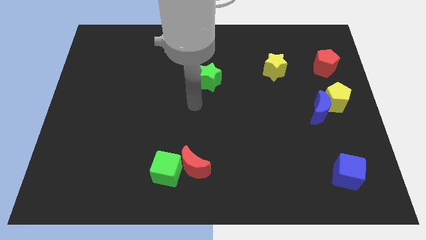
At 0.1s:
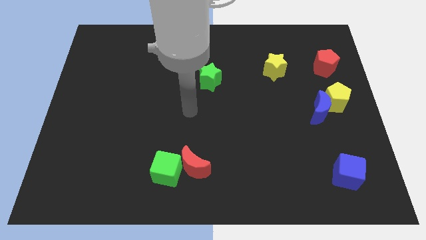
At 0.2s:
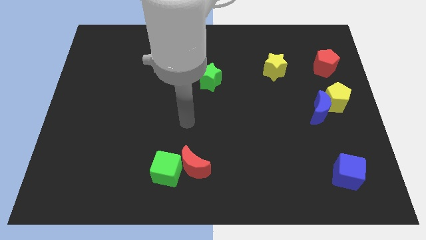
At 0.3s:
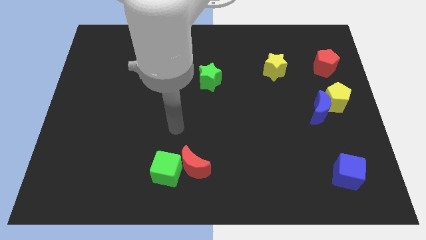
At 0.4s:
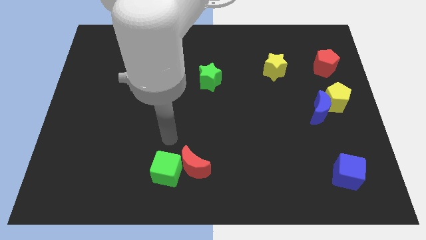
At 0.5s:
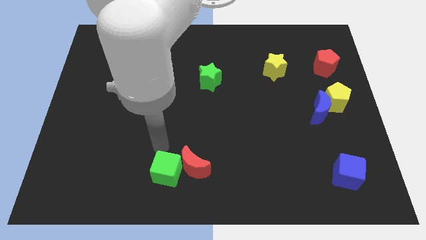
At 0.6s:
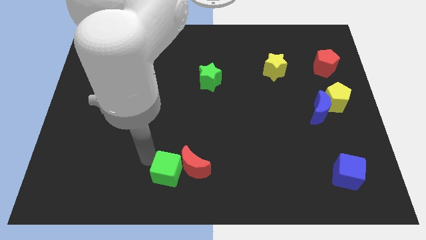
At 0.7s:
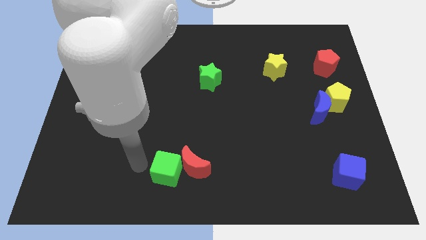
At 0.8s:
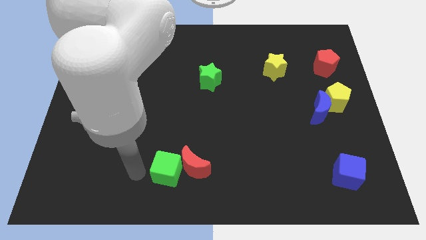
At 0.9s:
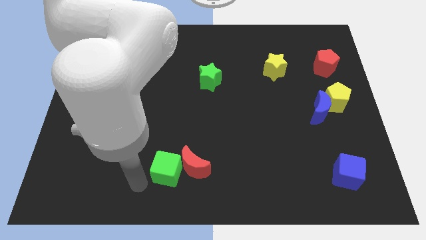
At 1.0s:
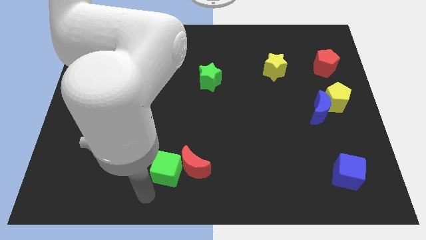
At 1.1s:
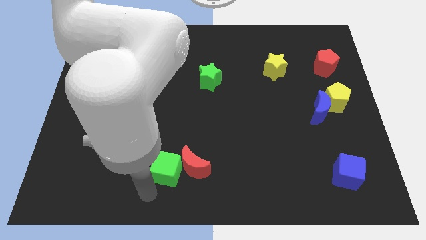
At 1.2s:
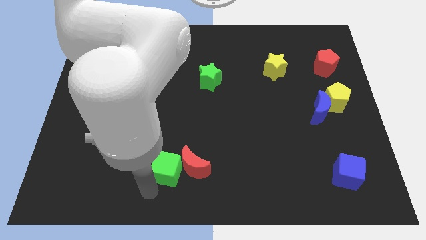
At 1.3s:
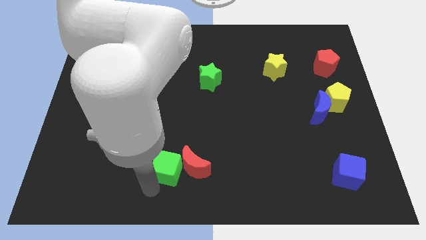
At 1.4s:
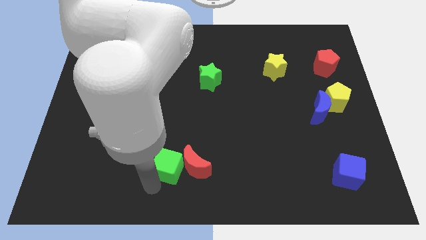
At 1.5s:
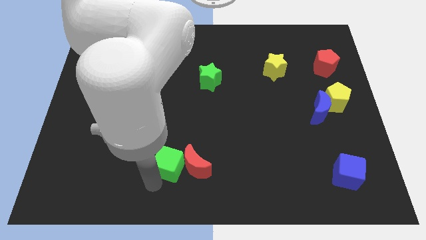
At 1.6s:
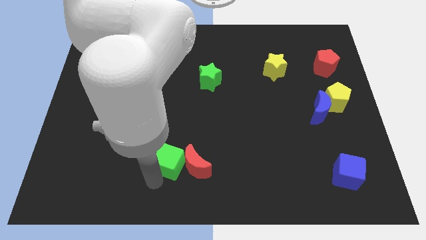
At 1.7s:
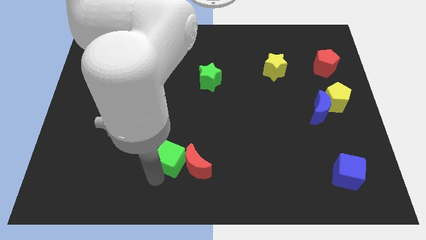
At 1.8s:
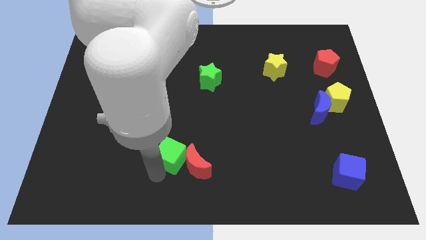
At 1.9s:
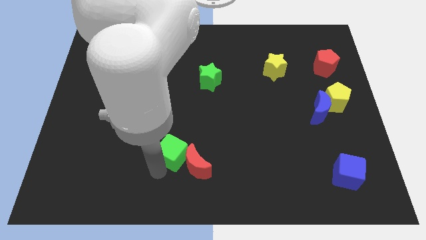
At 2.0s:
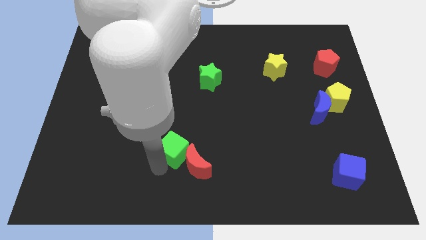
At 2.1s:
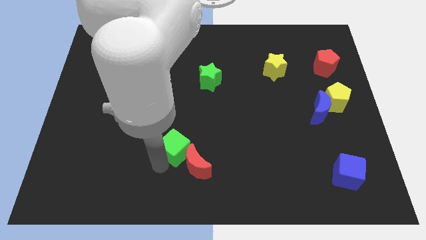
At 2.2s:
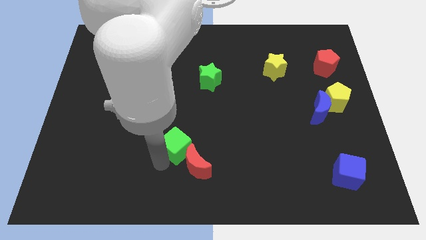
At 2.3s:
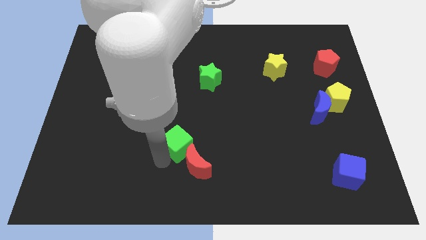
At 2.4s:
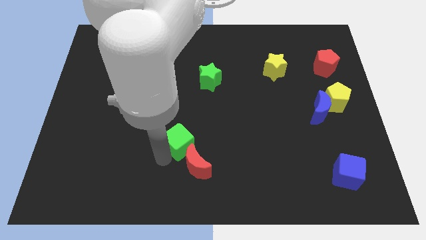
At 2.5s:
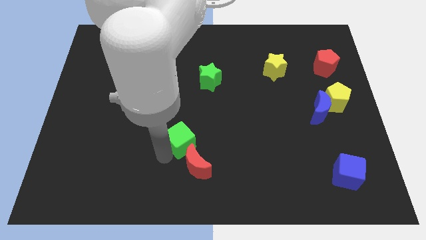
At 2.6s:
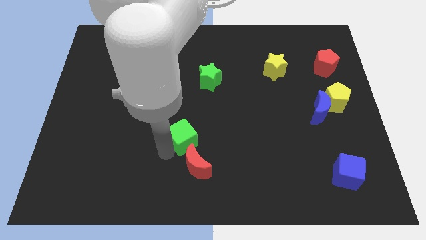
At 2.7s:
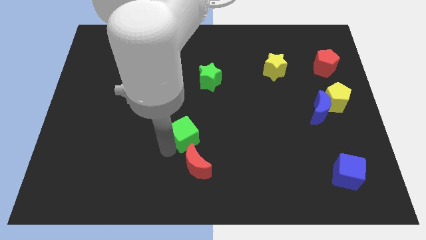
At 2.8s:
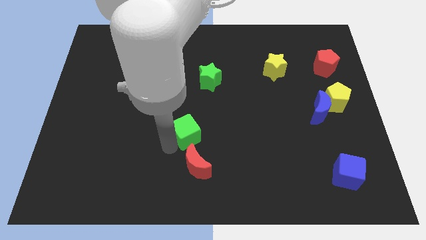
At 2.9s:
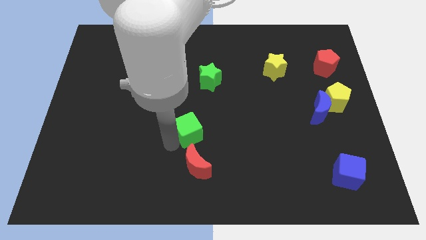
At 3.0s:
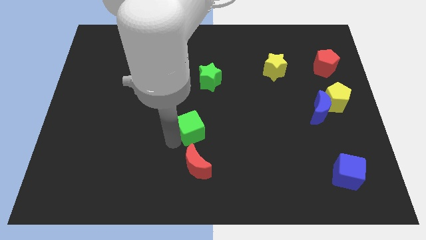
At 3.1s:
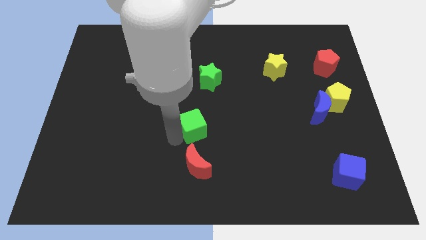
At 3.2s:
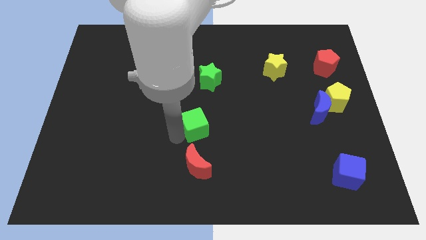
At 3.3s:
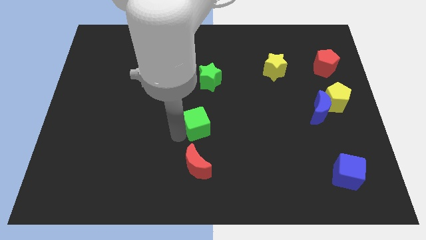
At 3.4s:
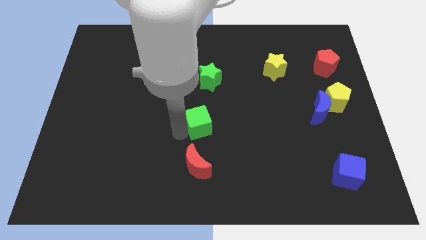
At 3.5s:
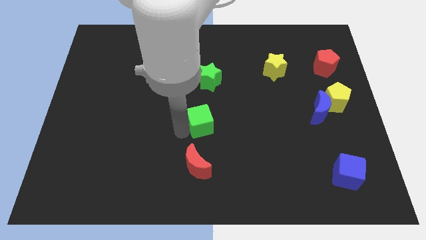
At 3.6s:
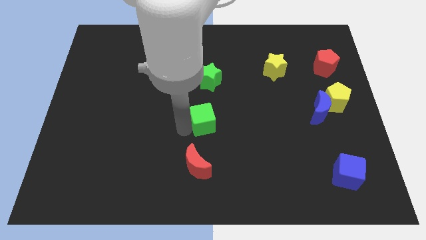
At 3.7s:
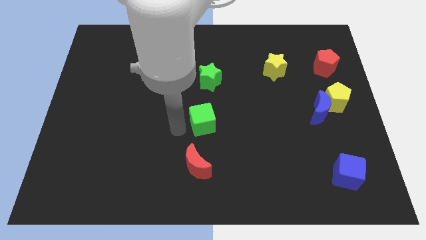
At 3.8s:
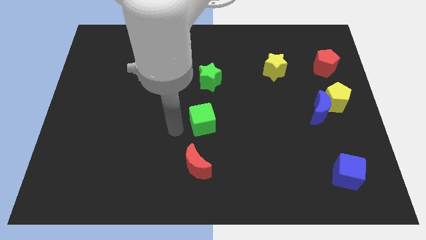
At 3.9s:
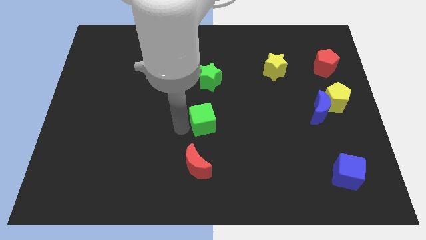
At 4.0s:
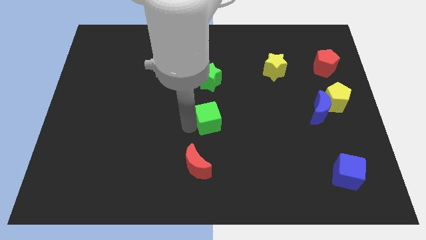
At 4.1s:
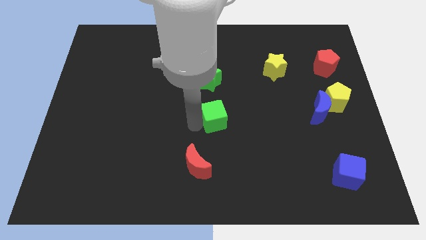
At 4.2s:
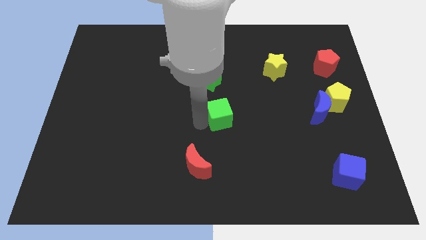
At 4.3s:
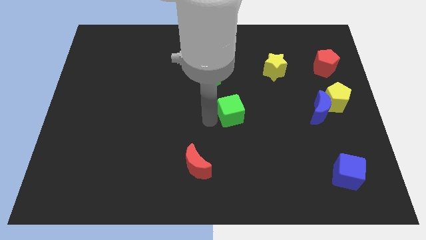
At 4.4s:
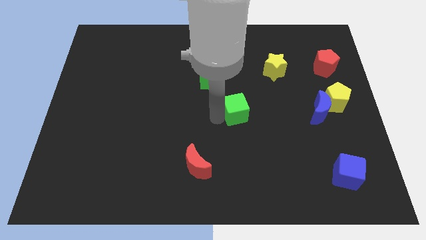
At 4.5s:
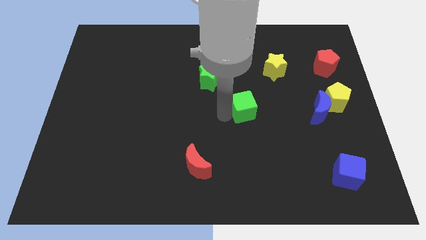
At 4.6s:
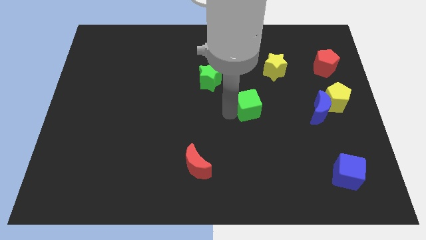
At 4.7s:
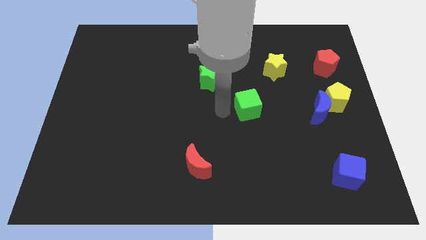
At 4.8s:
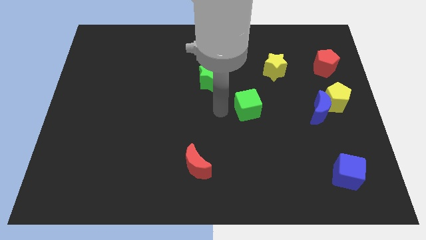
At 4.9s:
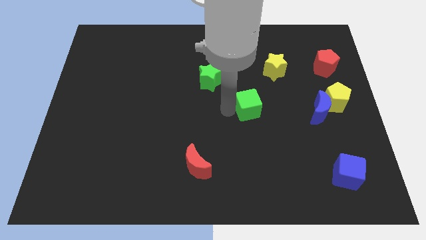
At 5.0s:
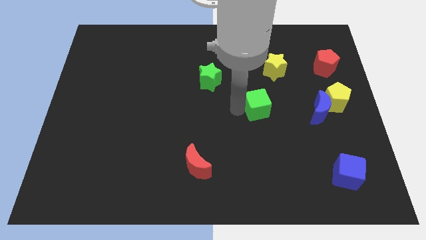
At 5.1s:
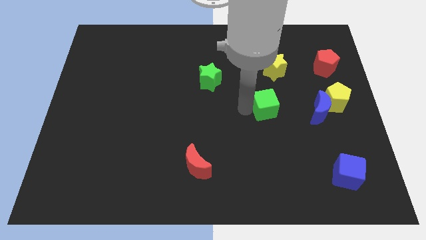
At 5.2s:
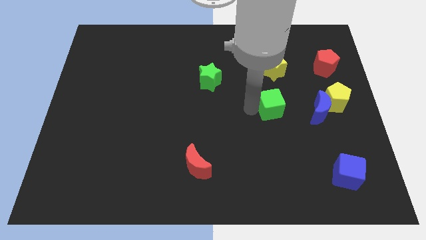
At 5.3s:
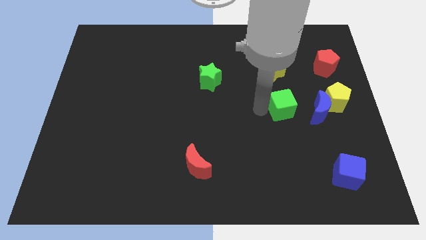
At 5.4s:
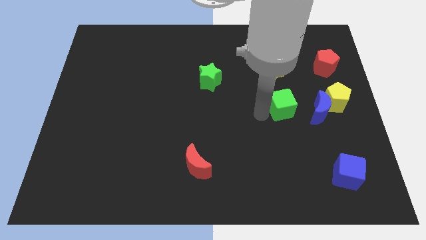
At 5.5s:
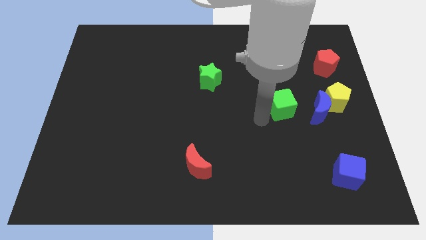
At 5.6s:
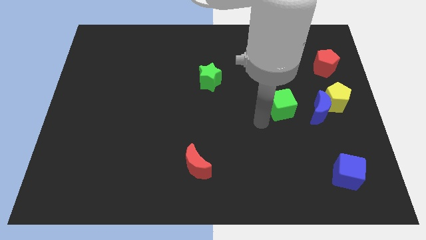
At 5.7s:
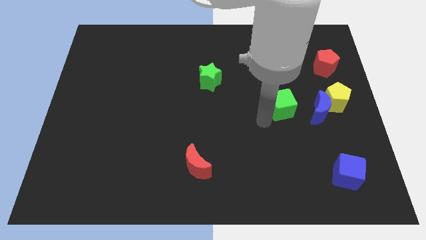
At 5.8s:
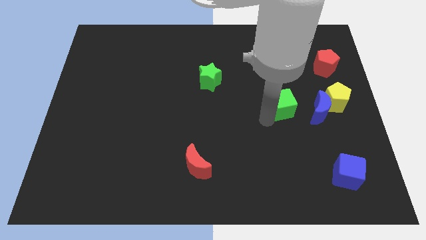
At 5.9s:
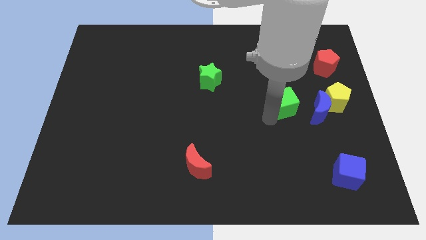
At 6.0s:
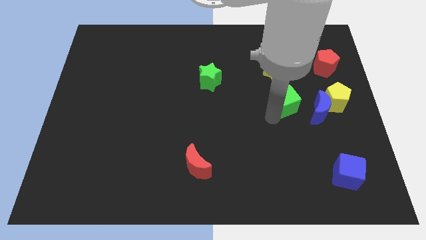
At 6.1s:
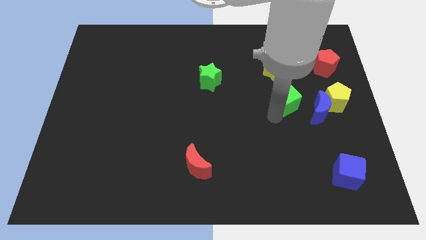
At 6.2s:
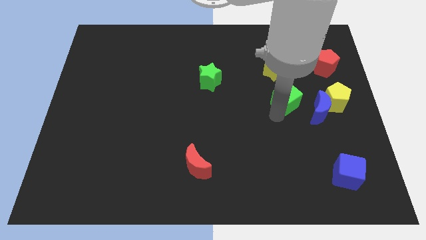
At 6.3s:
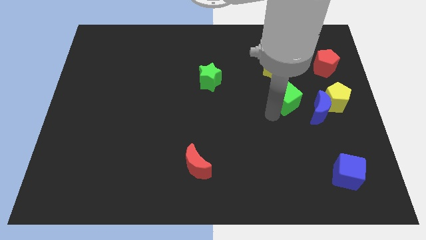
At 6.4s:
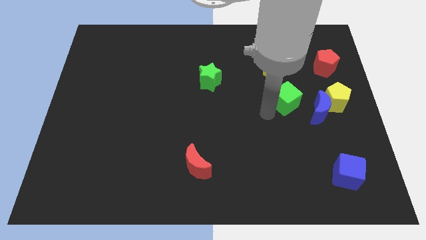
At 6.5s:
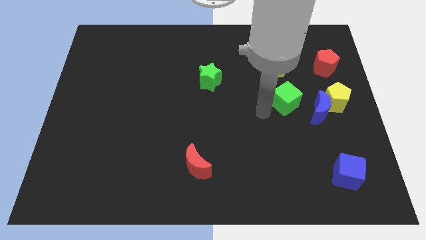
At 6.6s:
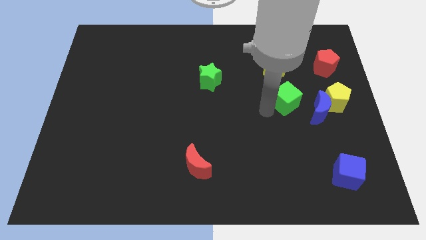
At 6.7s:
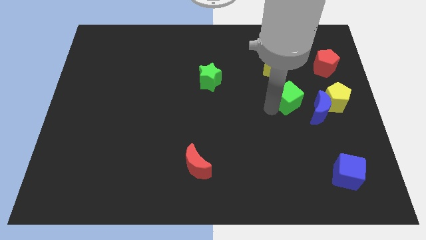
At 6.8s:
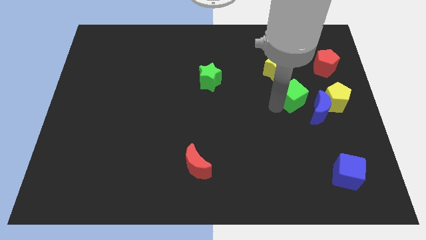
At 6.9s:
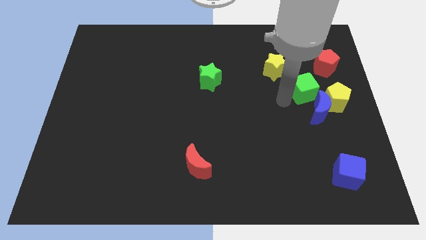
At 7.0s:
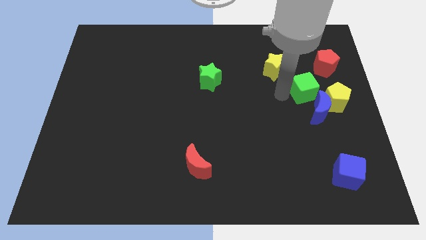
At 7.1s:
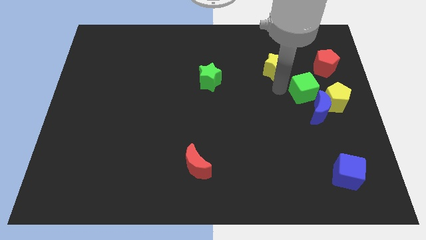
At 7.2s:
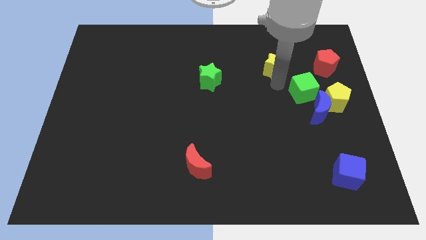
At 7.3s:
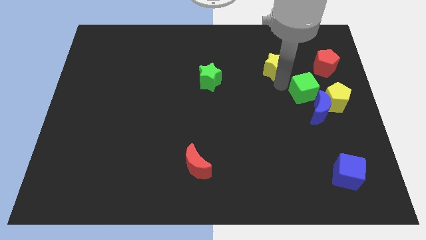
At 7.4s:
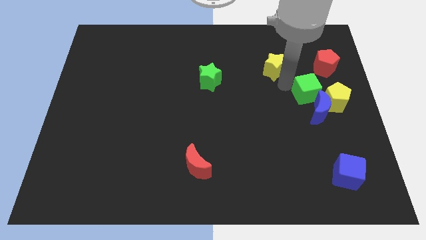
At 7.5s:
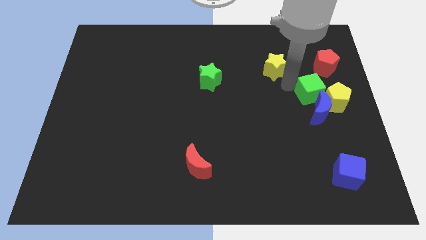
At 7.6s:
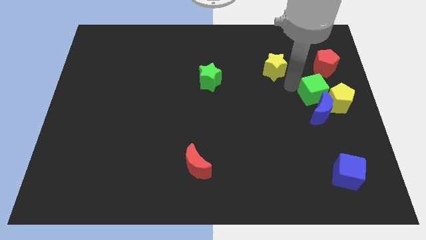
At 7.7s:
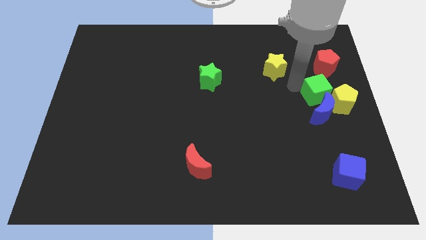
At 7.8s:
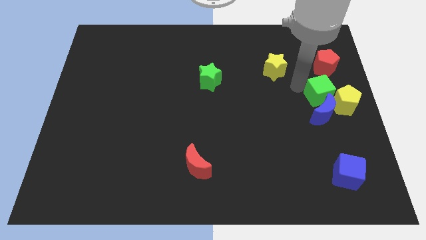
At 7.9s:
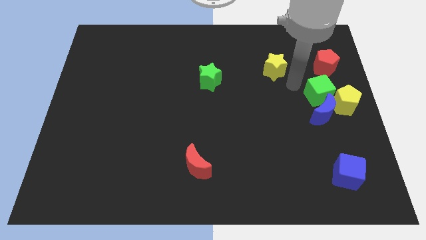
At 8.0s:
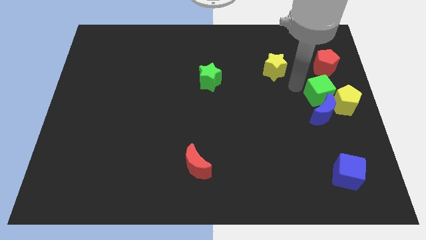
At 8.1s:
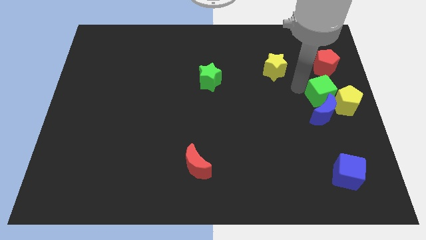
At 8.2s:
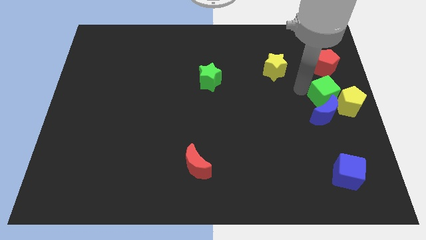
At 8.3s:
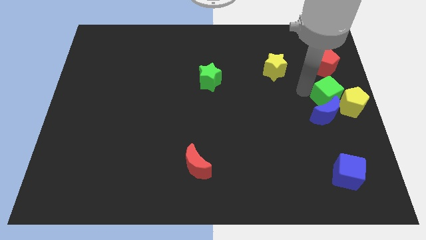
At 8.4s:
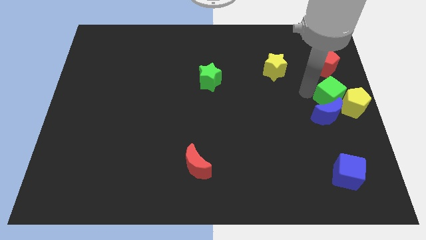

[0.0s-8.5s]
slide the green cube close to the yellow pentagon
